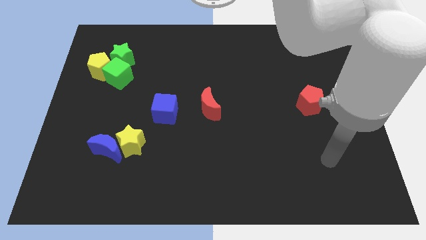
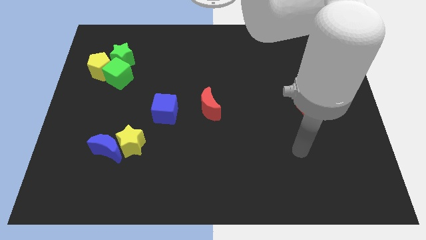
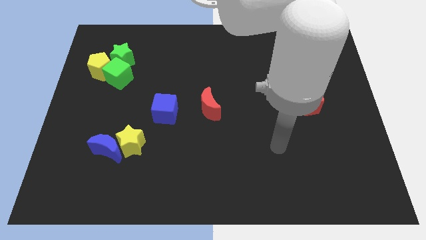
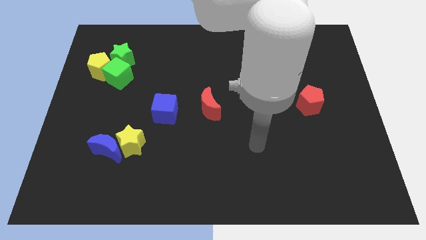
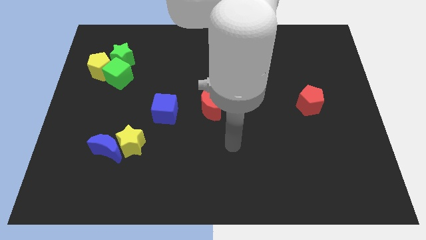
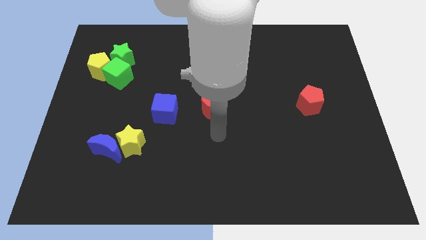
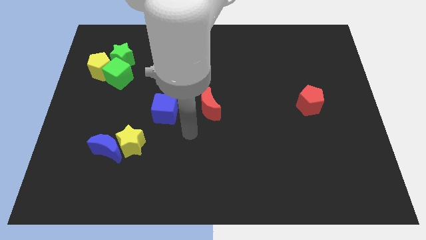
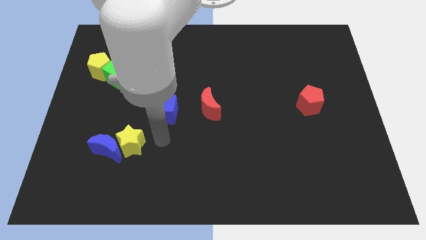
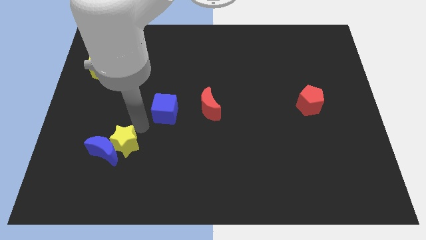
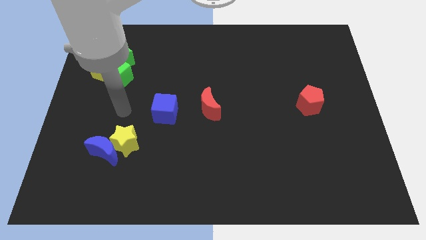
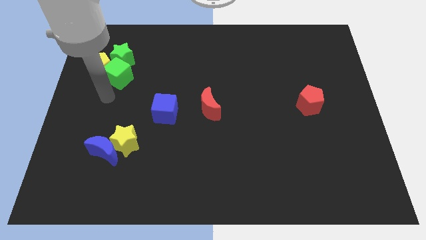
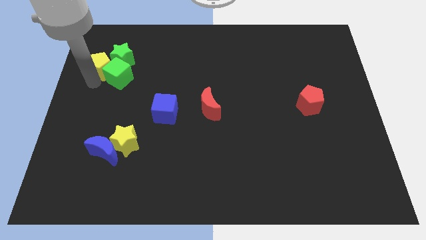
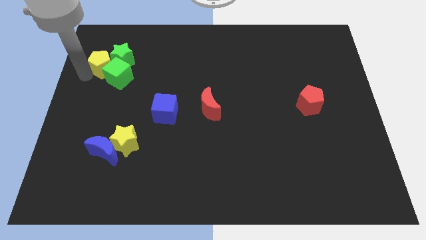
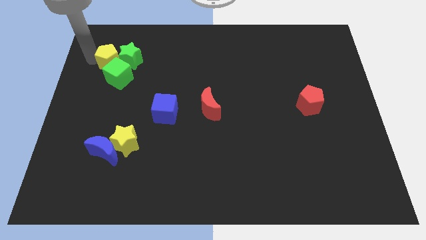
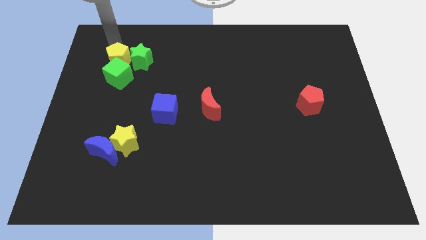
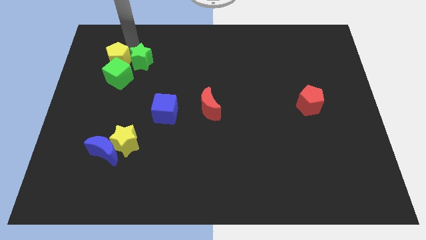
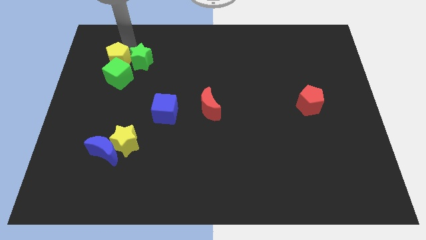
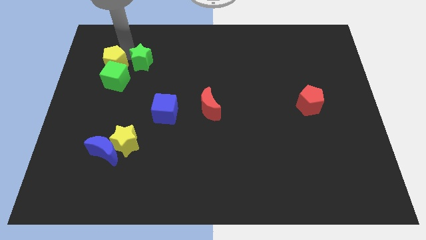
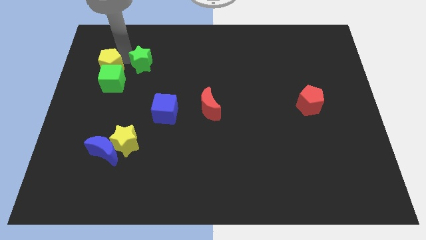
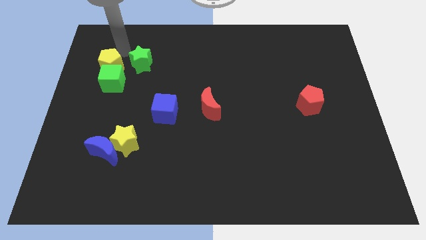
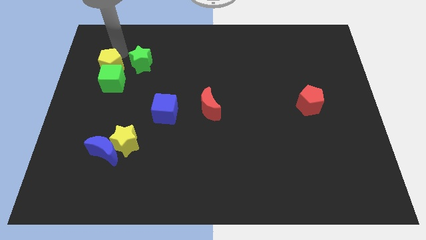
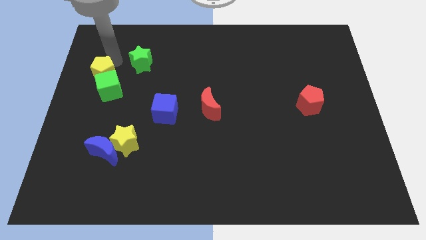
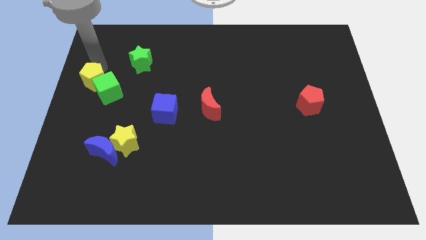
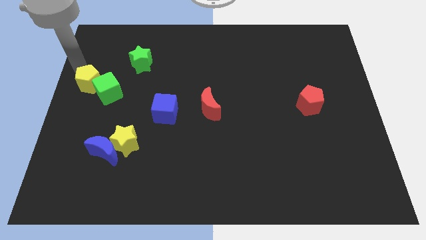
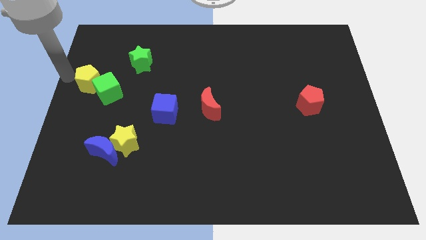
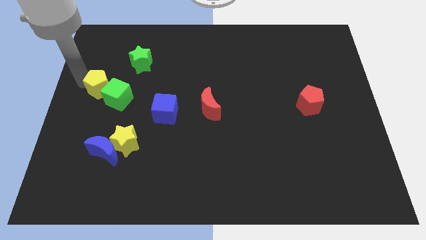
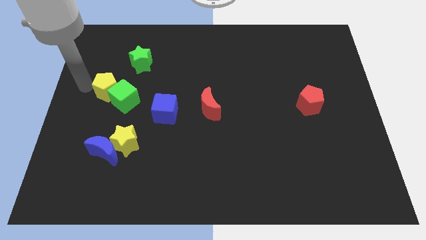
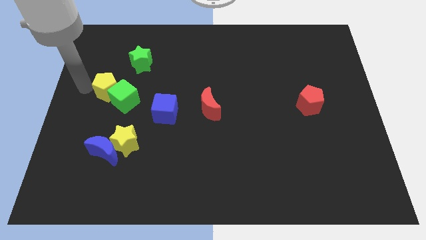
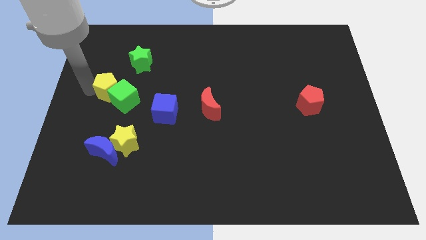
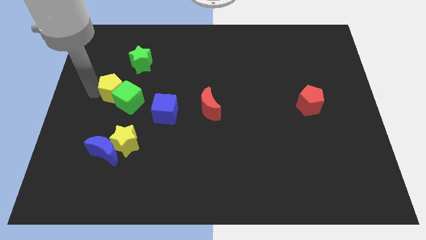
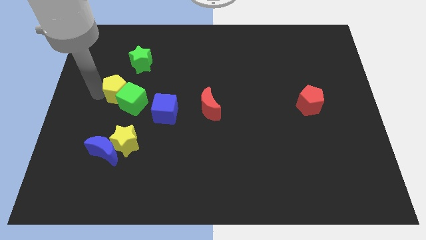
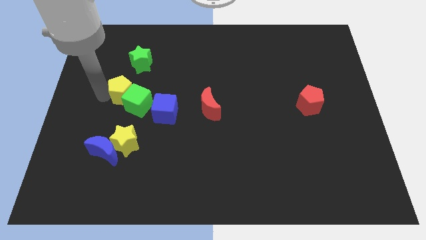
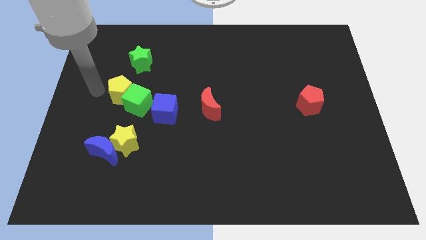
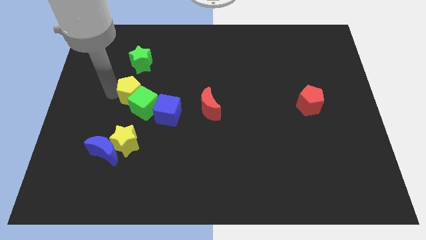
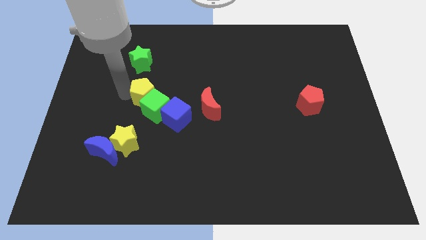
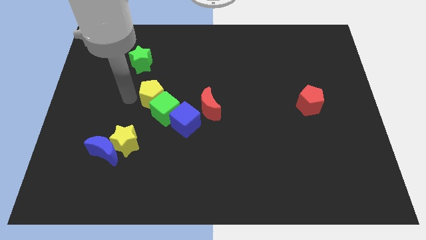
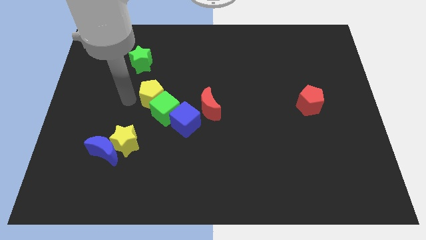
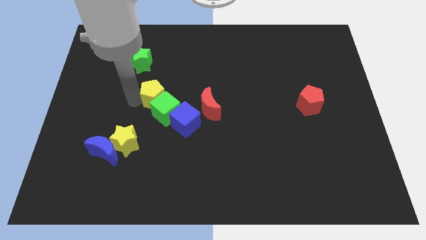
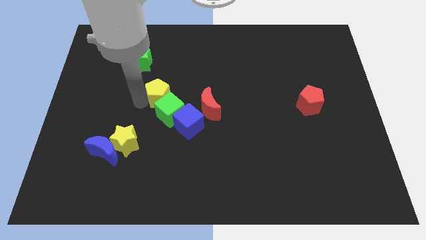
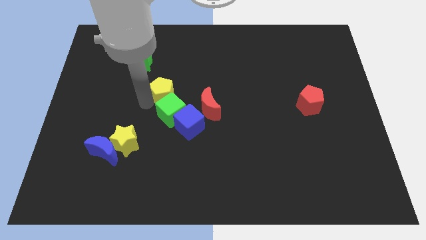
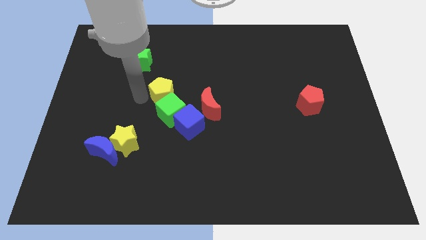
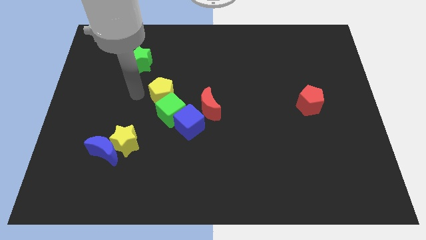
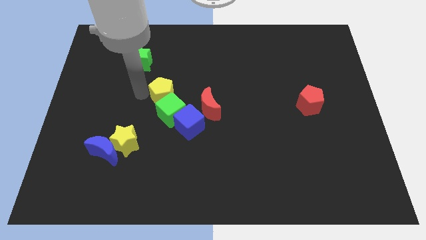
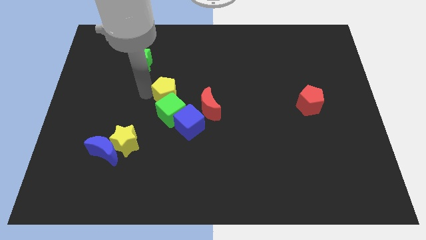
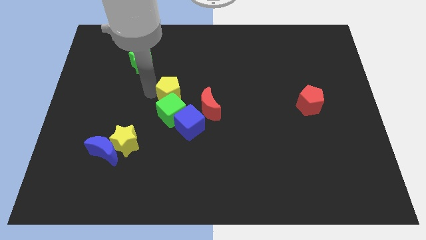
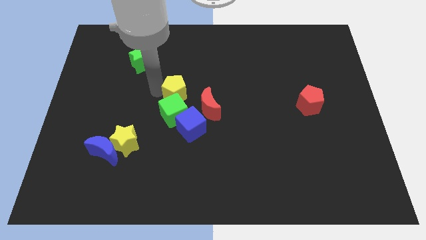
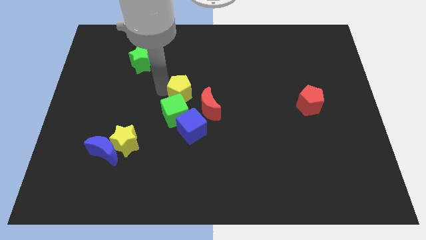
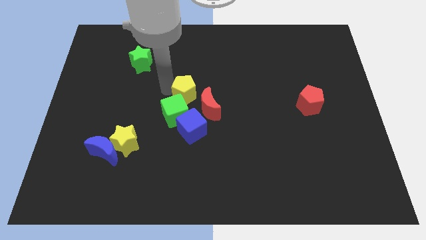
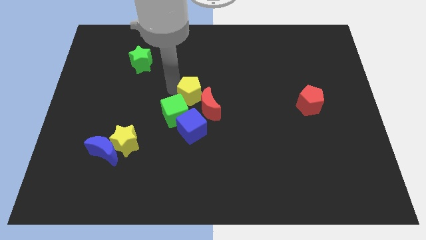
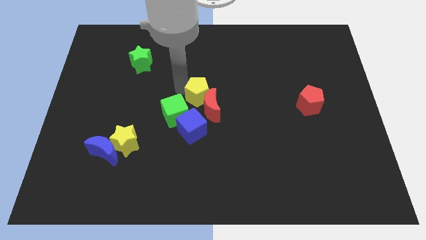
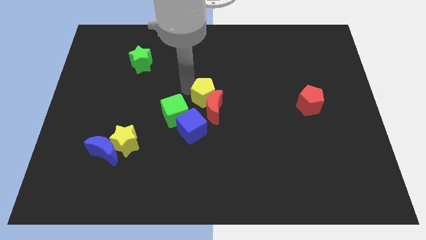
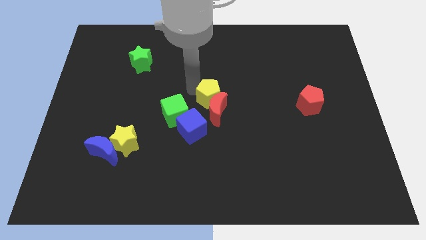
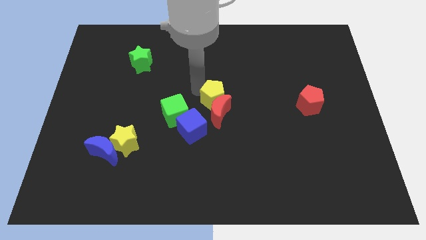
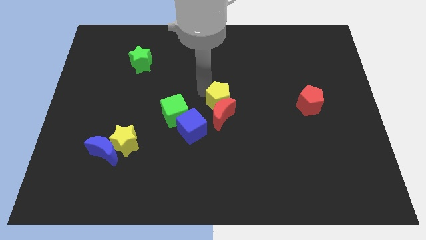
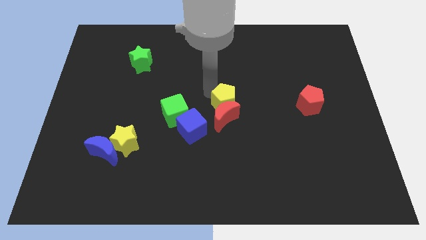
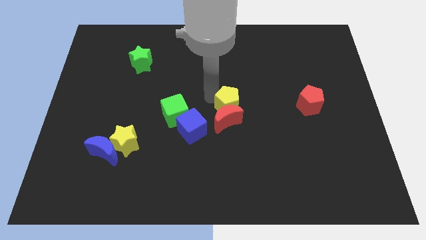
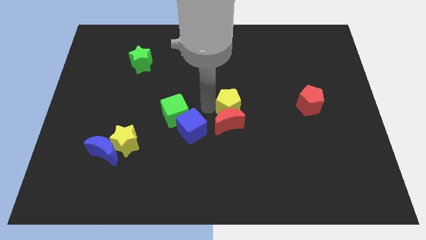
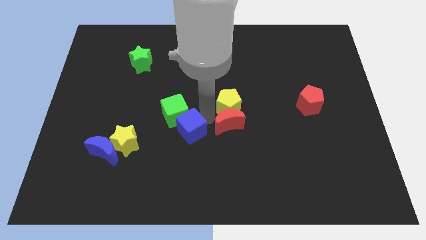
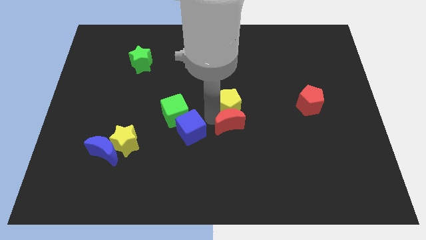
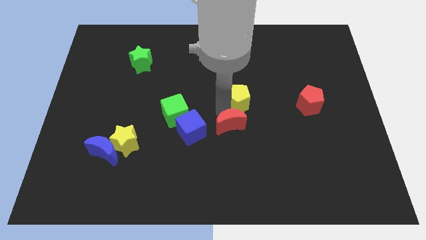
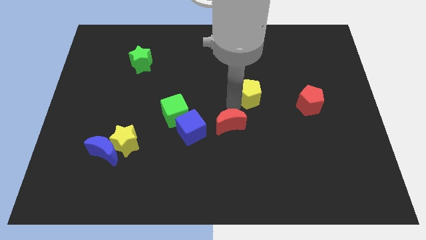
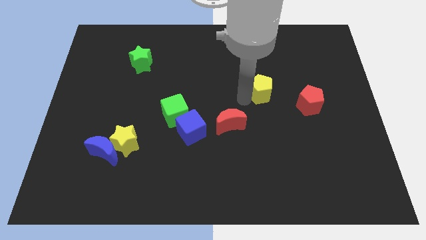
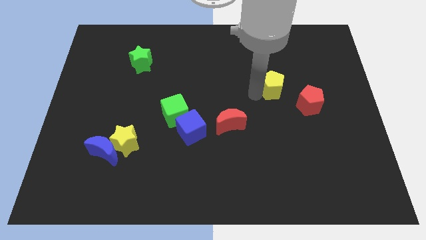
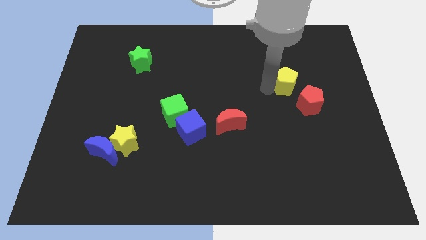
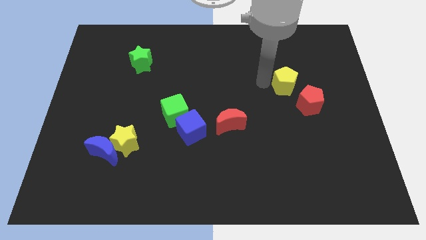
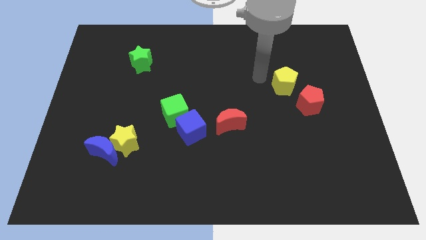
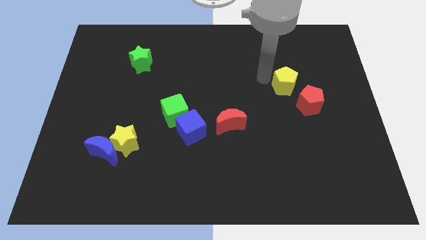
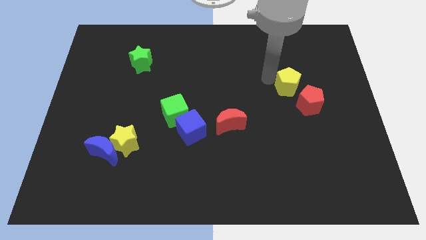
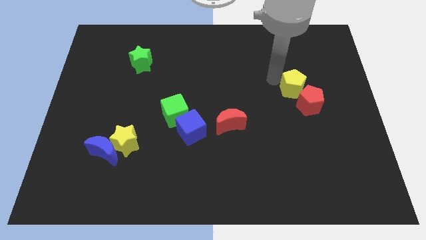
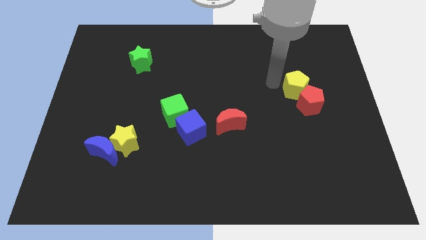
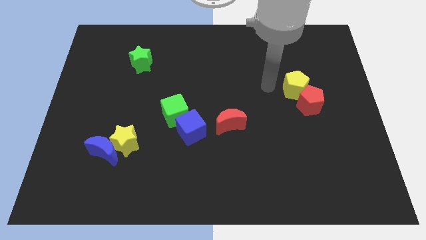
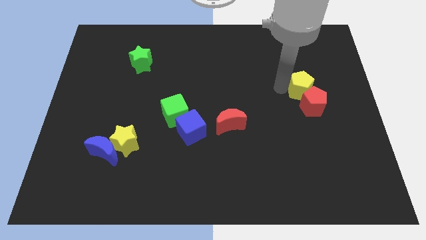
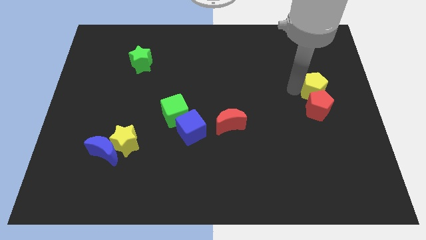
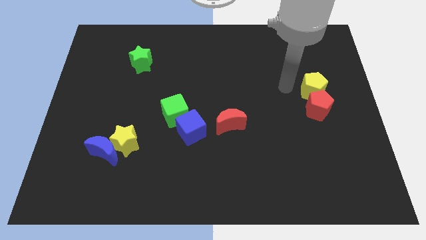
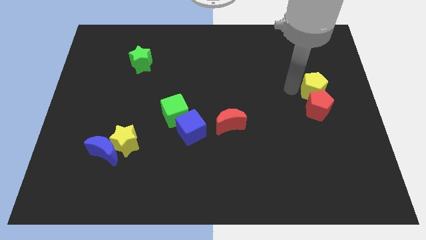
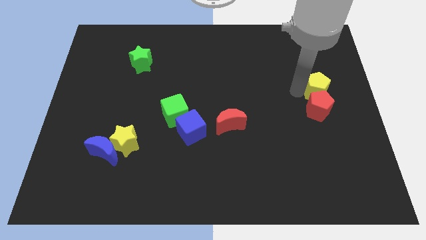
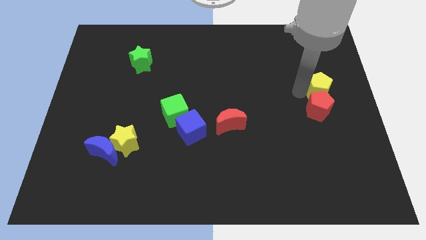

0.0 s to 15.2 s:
slide the yellow pentagon to the center right
